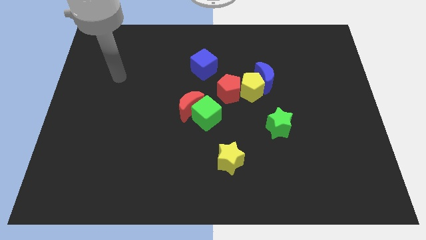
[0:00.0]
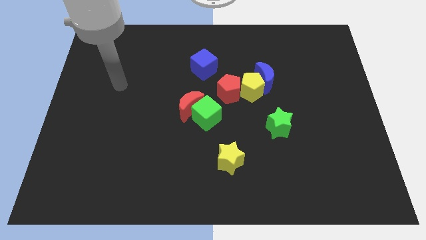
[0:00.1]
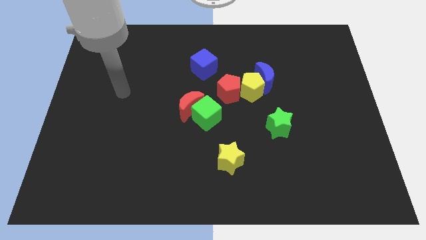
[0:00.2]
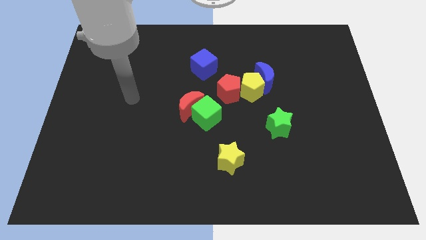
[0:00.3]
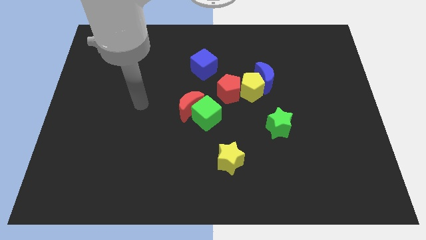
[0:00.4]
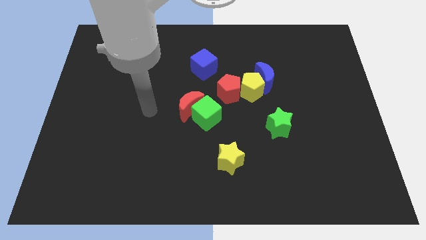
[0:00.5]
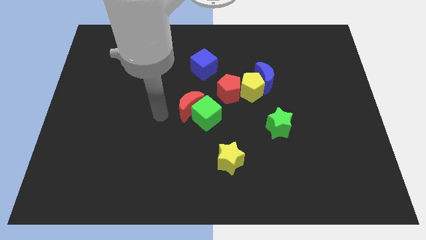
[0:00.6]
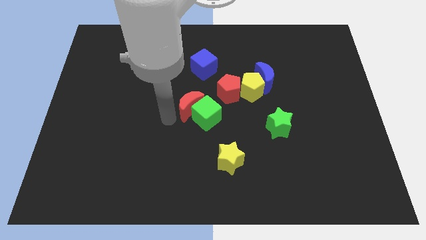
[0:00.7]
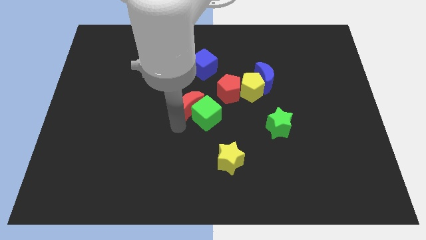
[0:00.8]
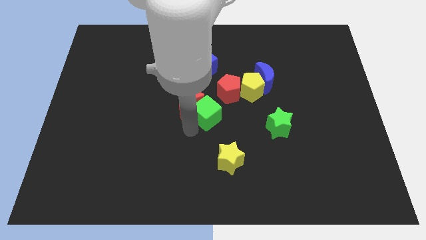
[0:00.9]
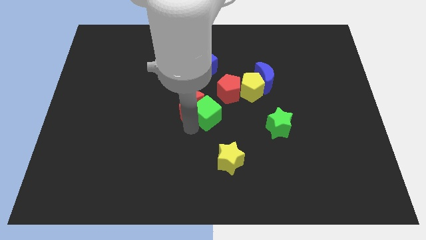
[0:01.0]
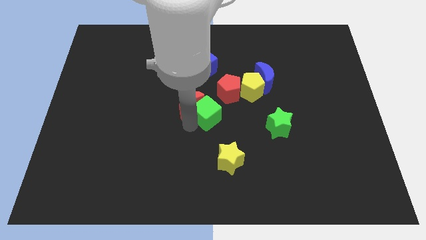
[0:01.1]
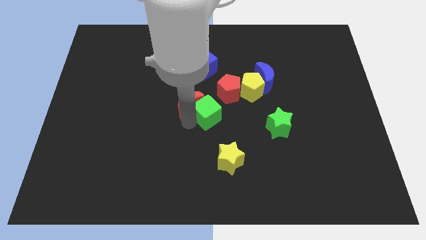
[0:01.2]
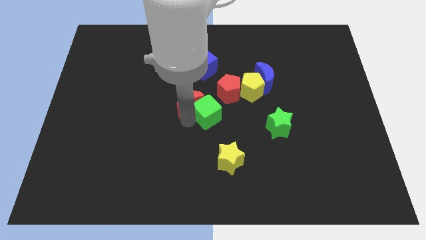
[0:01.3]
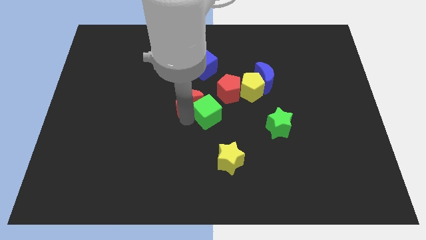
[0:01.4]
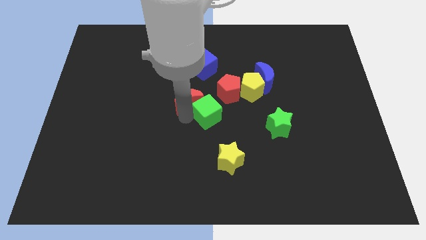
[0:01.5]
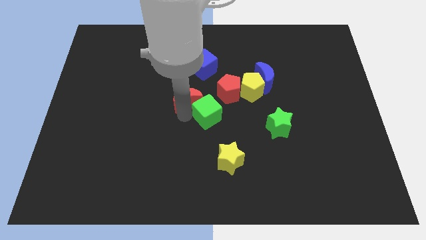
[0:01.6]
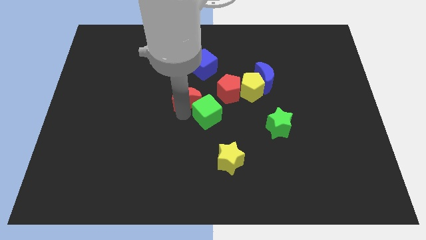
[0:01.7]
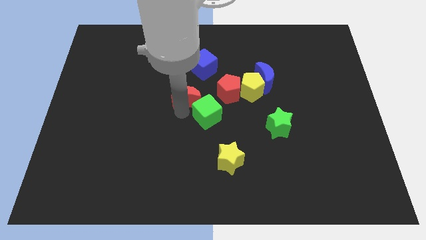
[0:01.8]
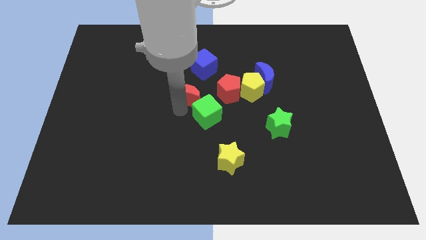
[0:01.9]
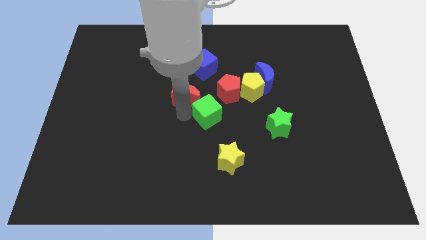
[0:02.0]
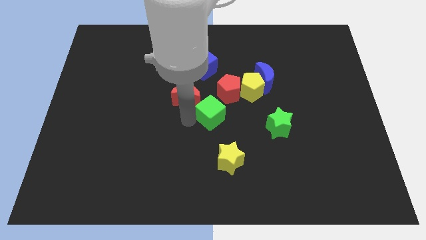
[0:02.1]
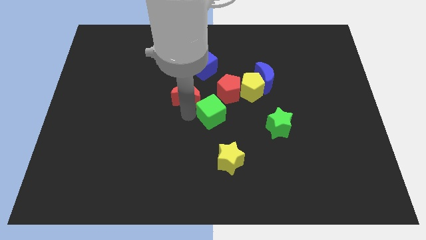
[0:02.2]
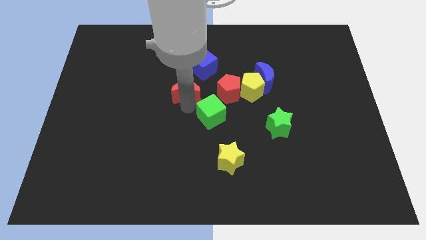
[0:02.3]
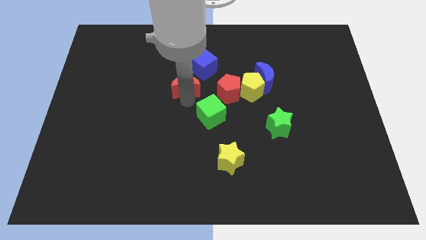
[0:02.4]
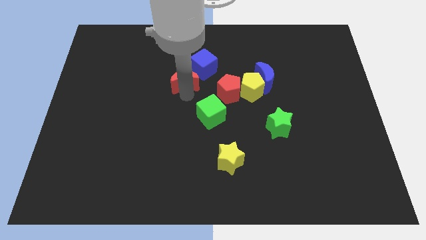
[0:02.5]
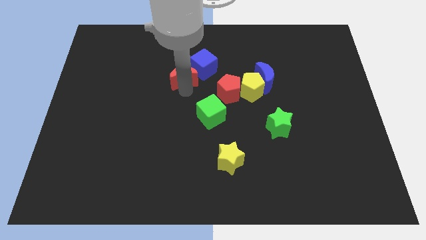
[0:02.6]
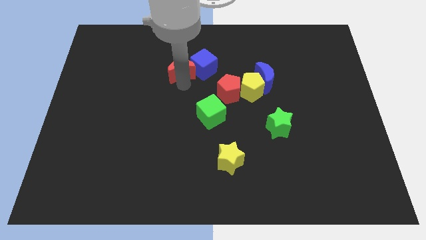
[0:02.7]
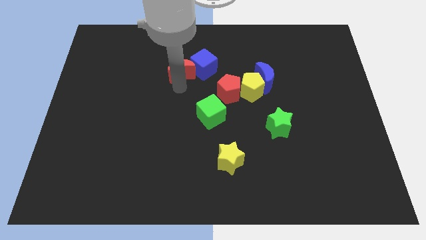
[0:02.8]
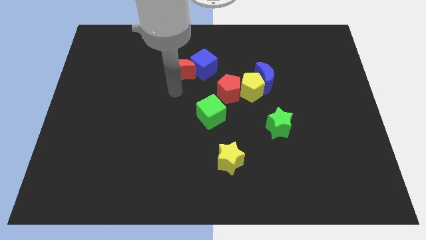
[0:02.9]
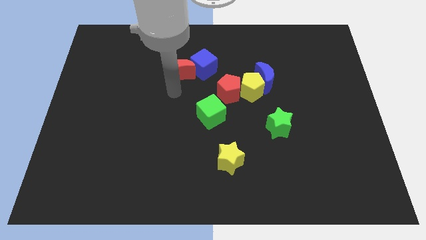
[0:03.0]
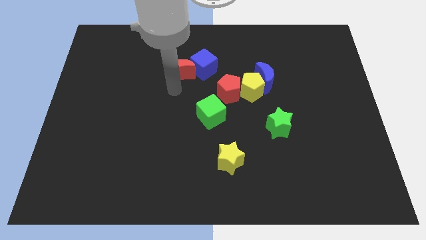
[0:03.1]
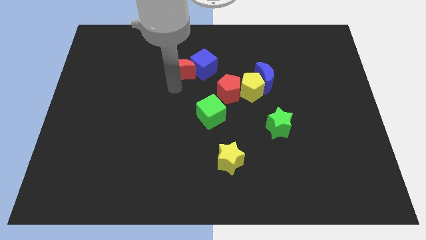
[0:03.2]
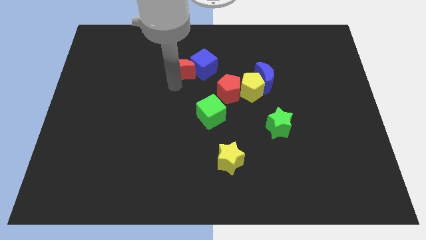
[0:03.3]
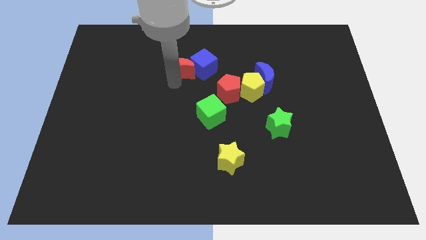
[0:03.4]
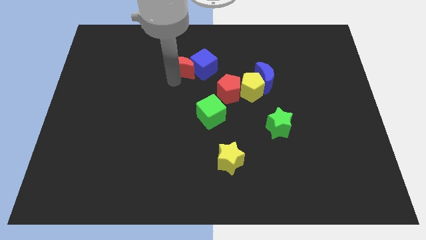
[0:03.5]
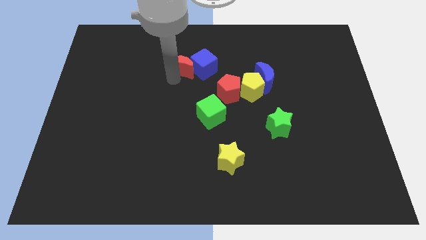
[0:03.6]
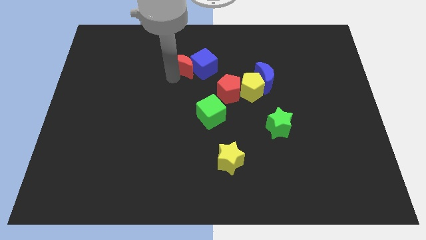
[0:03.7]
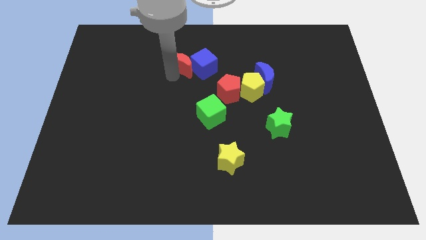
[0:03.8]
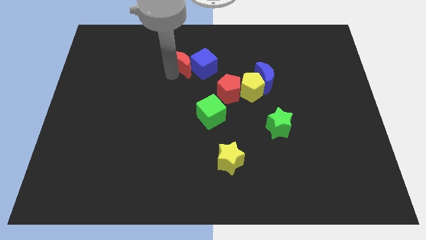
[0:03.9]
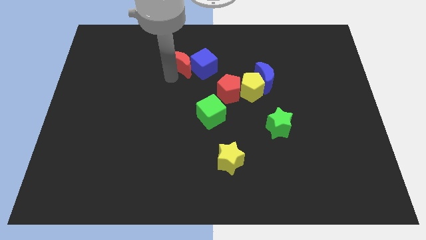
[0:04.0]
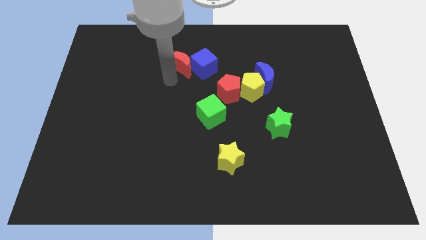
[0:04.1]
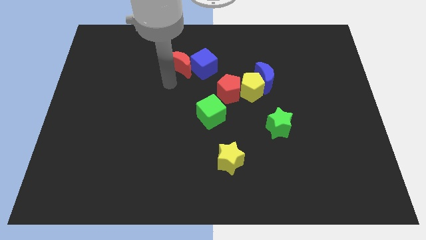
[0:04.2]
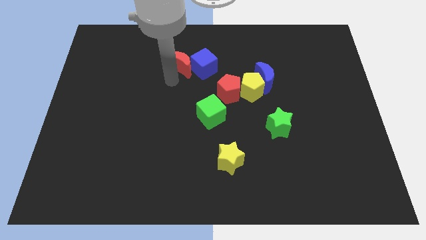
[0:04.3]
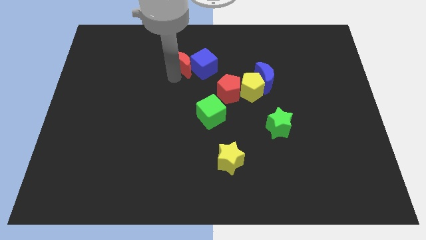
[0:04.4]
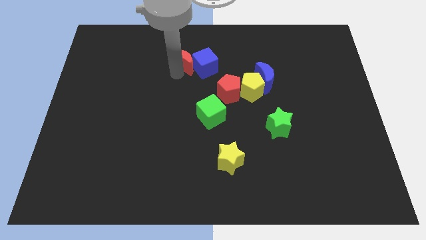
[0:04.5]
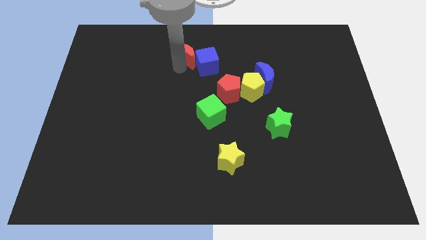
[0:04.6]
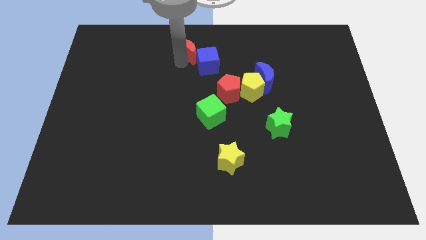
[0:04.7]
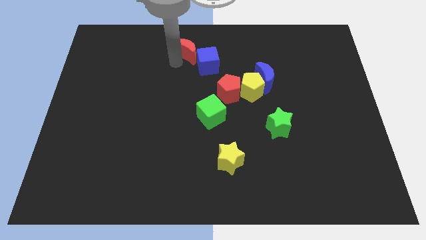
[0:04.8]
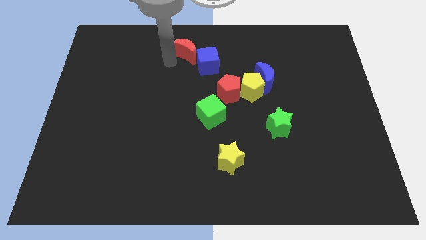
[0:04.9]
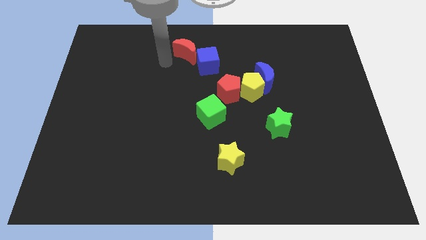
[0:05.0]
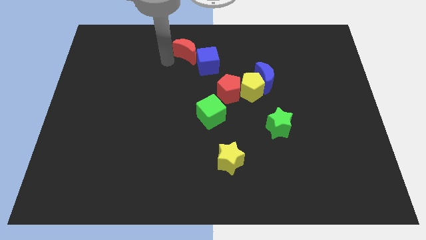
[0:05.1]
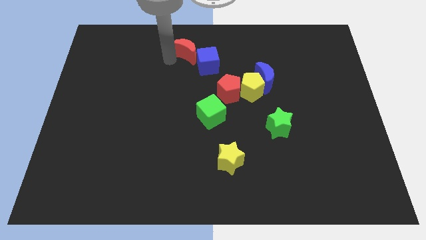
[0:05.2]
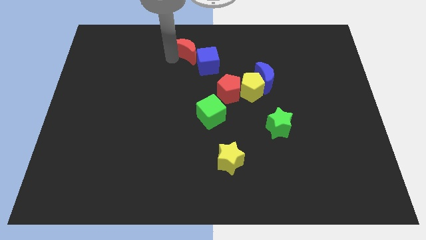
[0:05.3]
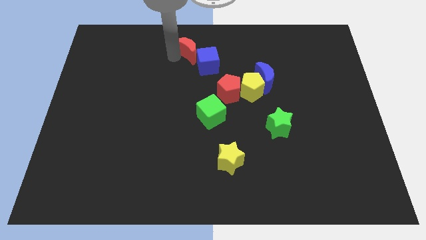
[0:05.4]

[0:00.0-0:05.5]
move the red moon to the top side
